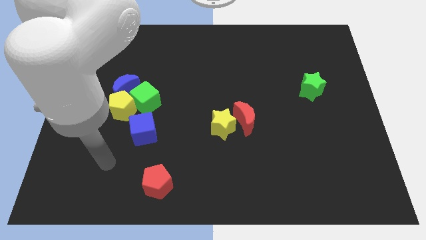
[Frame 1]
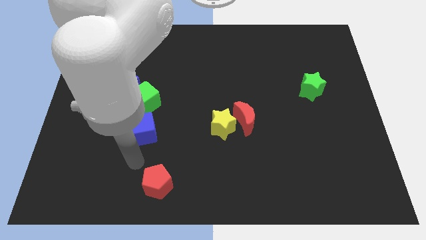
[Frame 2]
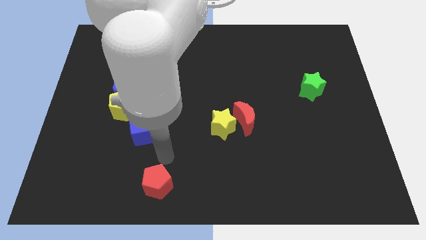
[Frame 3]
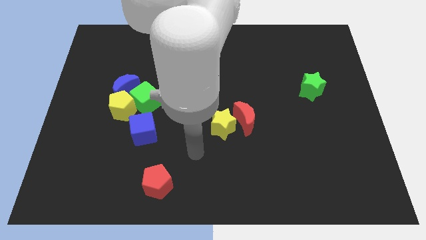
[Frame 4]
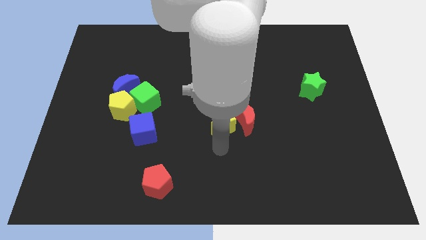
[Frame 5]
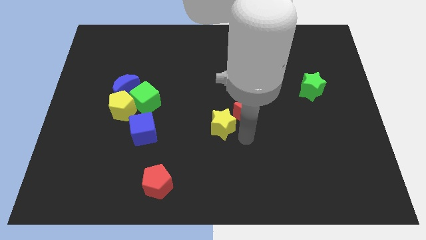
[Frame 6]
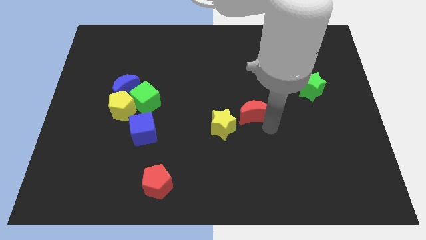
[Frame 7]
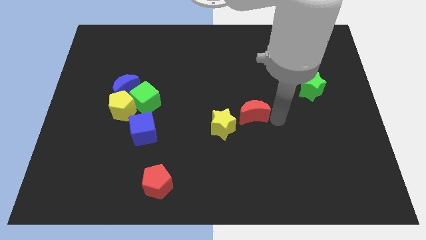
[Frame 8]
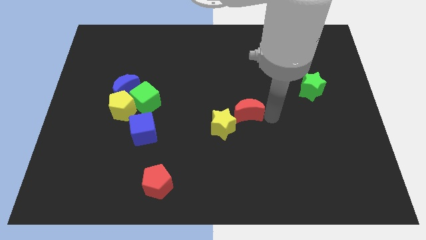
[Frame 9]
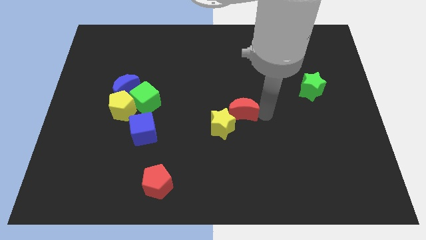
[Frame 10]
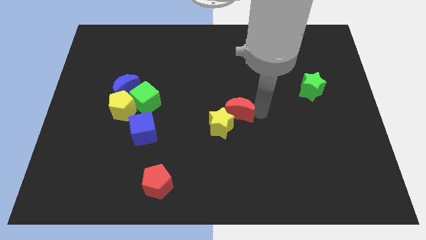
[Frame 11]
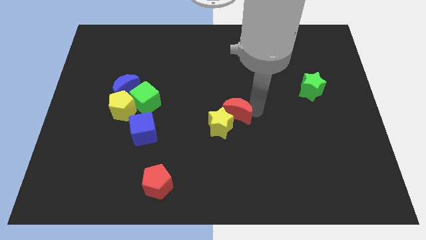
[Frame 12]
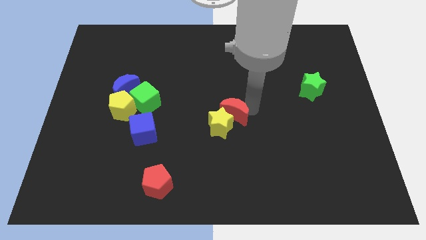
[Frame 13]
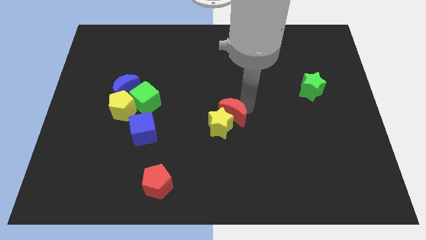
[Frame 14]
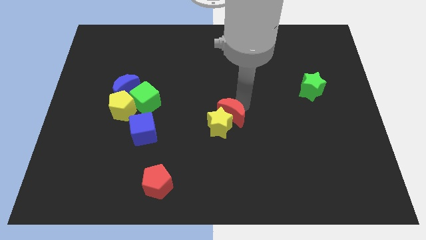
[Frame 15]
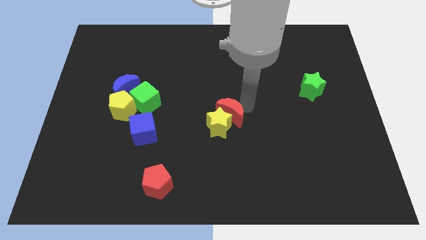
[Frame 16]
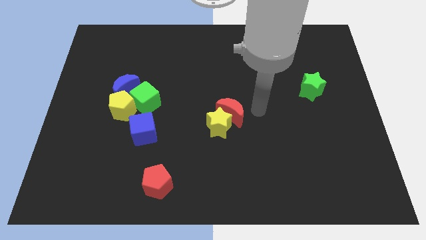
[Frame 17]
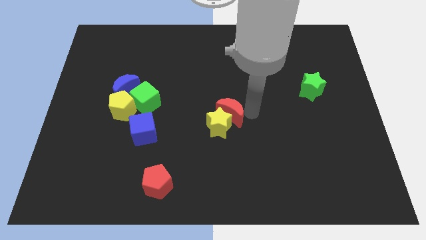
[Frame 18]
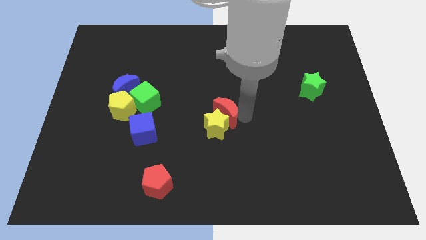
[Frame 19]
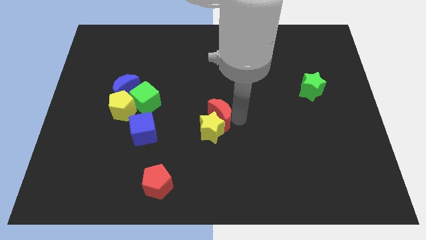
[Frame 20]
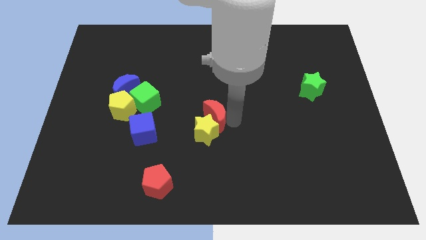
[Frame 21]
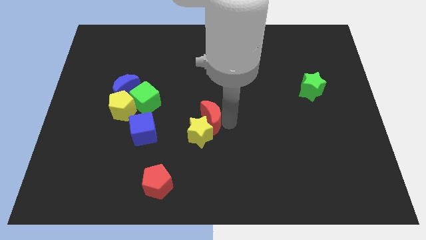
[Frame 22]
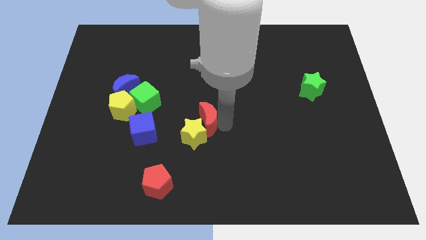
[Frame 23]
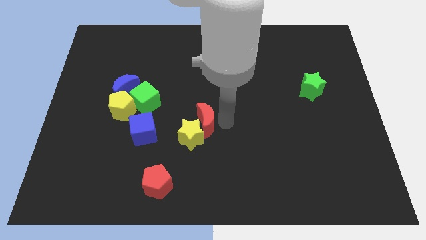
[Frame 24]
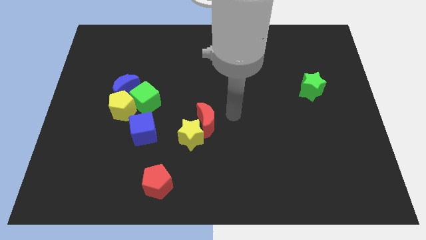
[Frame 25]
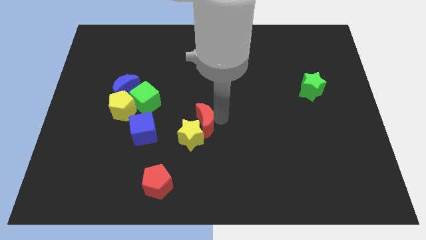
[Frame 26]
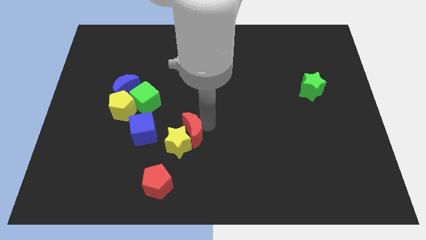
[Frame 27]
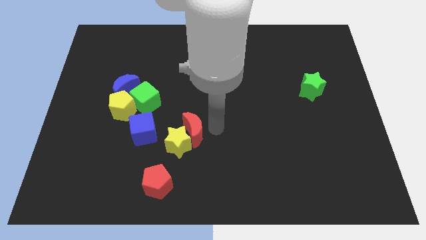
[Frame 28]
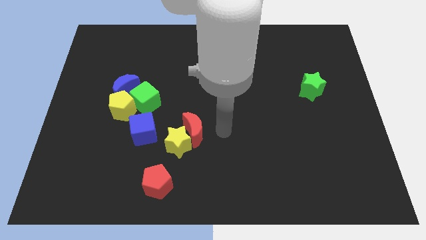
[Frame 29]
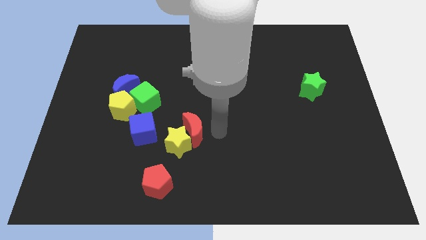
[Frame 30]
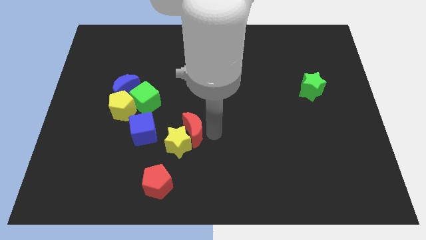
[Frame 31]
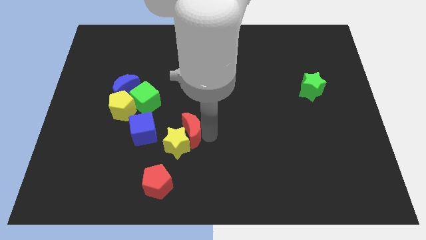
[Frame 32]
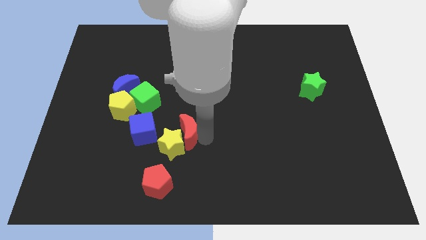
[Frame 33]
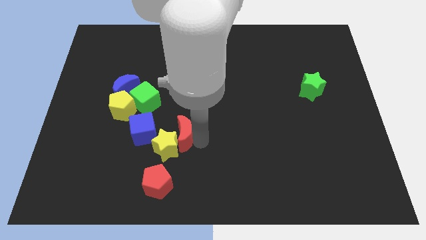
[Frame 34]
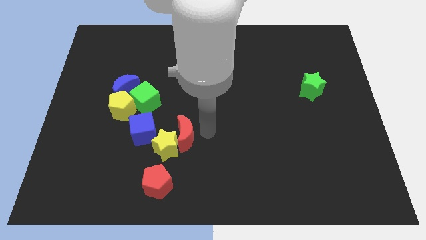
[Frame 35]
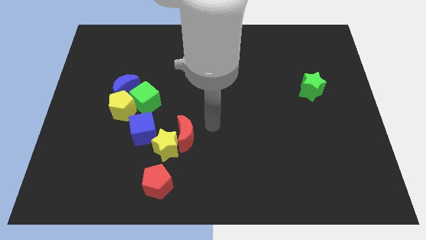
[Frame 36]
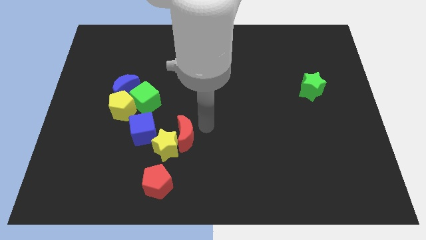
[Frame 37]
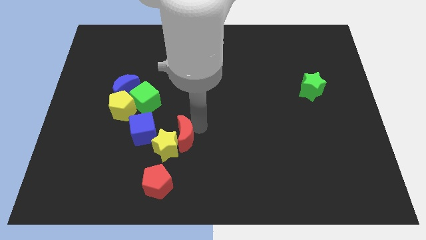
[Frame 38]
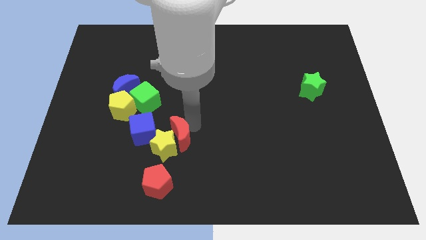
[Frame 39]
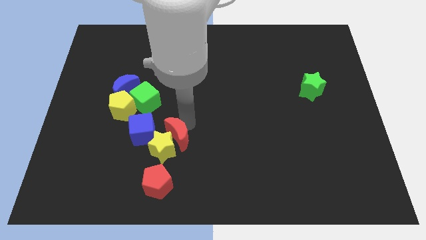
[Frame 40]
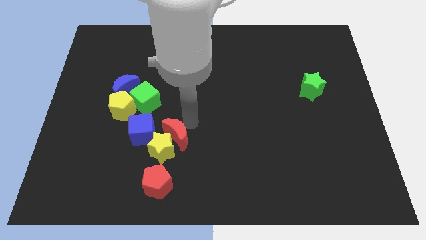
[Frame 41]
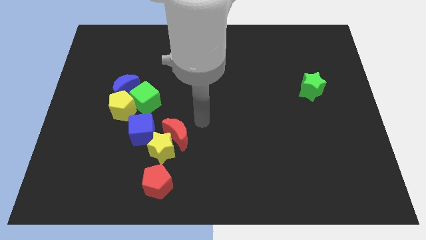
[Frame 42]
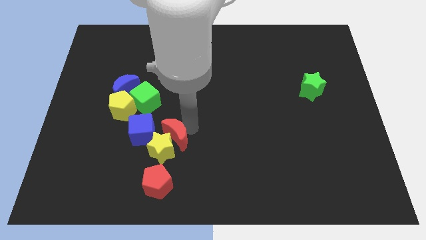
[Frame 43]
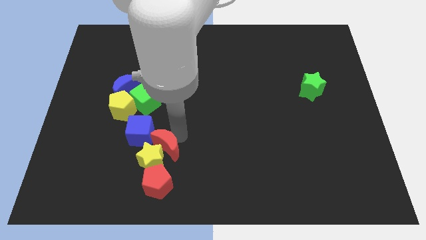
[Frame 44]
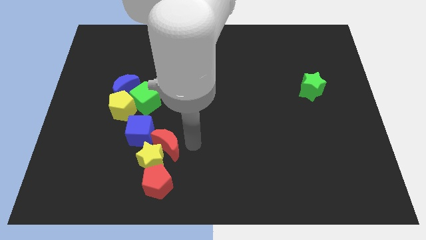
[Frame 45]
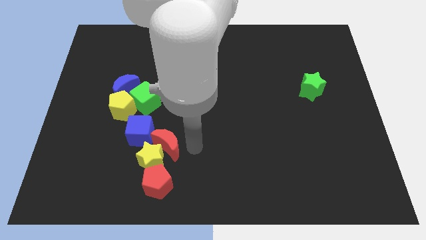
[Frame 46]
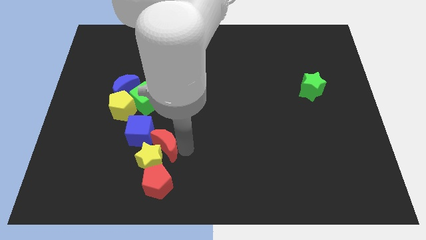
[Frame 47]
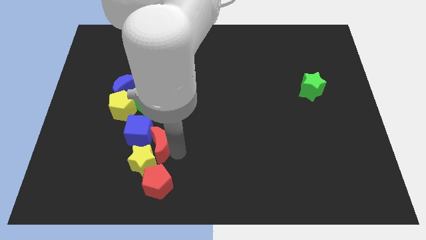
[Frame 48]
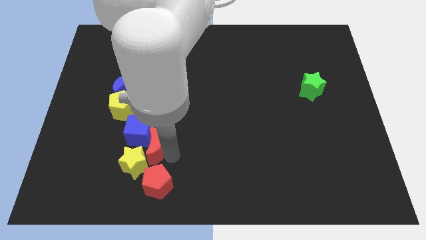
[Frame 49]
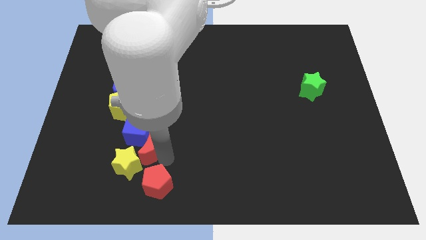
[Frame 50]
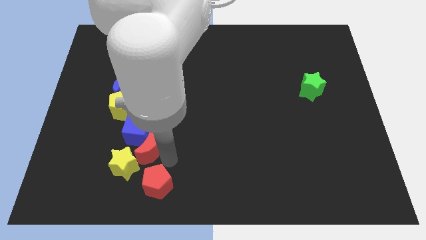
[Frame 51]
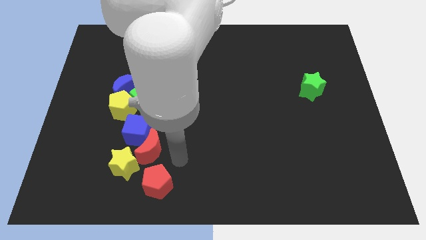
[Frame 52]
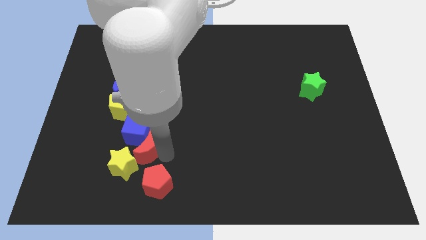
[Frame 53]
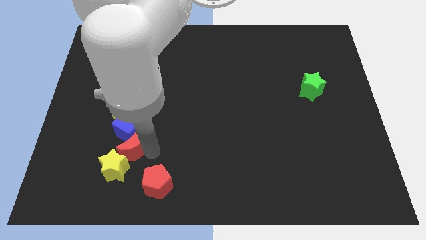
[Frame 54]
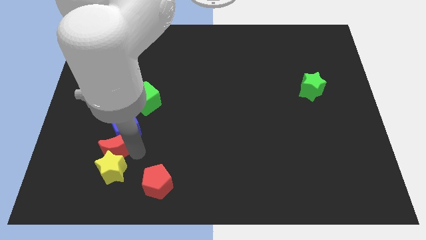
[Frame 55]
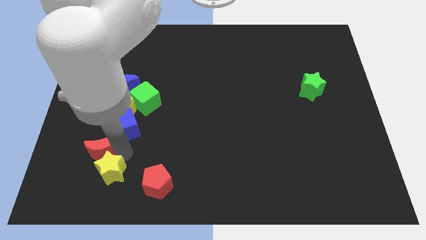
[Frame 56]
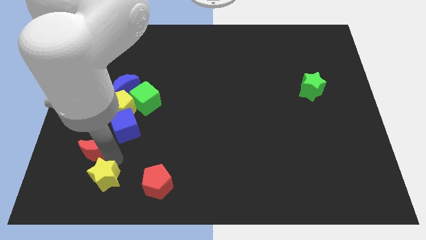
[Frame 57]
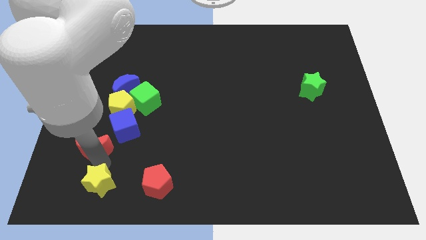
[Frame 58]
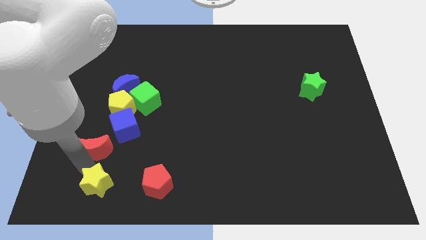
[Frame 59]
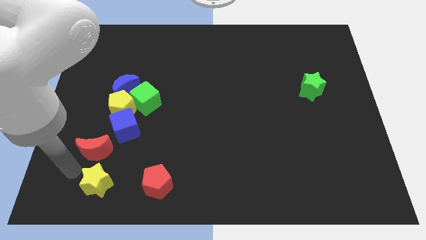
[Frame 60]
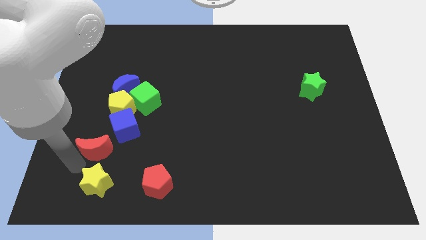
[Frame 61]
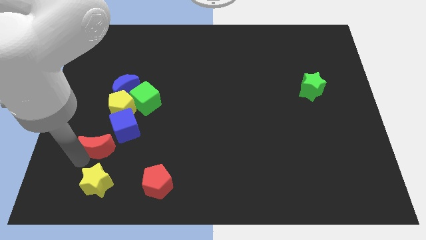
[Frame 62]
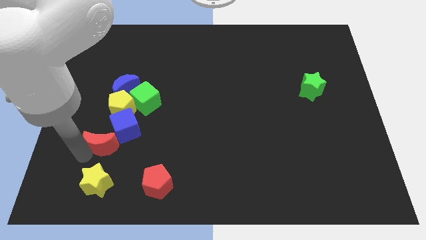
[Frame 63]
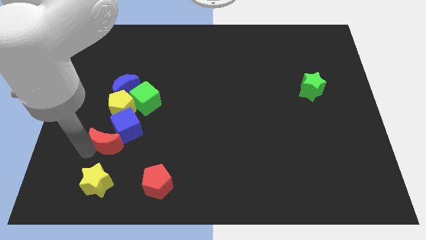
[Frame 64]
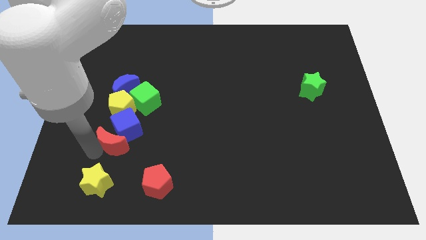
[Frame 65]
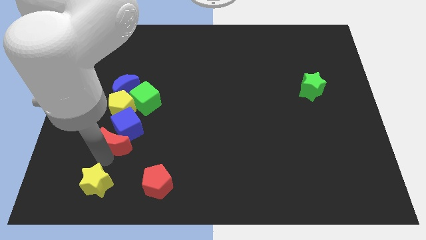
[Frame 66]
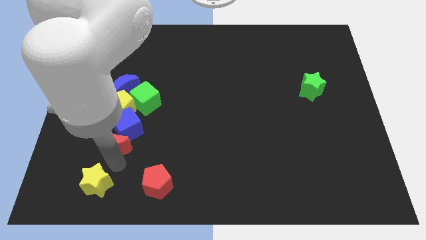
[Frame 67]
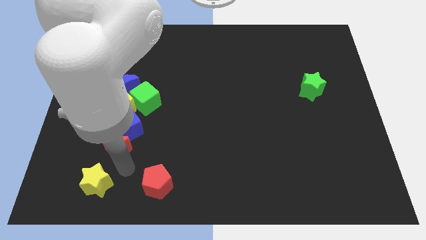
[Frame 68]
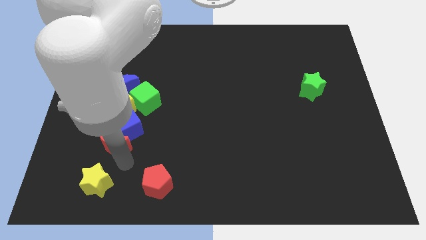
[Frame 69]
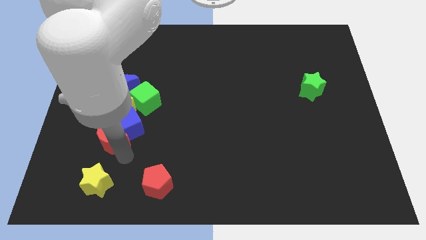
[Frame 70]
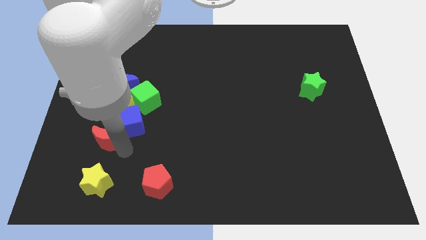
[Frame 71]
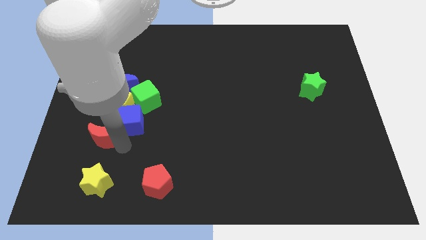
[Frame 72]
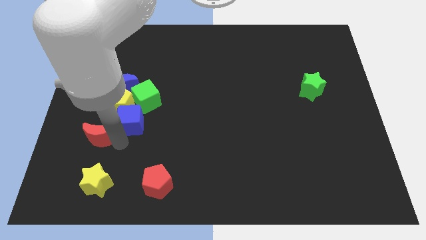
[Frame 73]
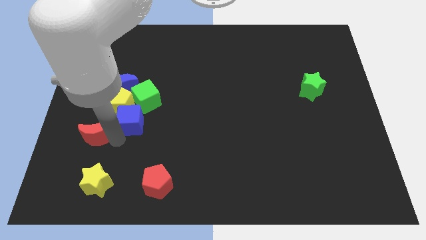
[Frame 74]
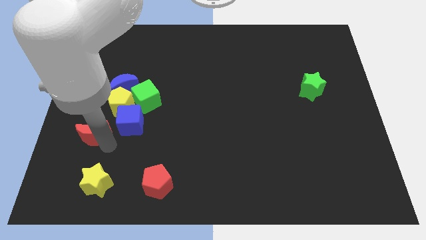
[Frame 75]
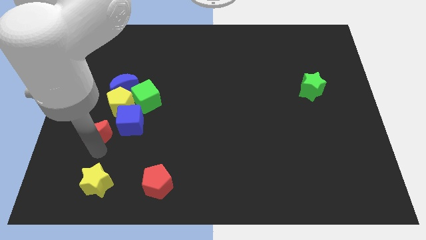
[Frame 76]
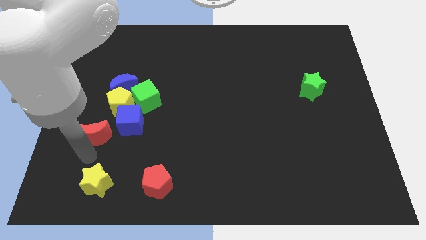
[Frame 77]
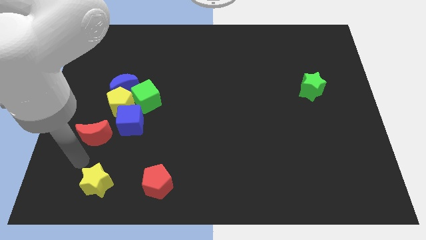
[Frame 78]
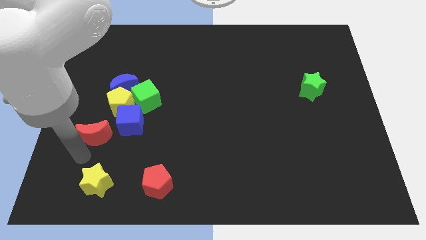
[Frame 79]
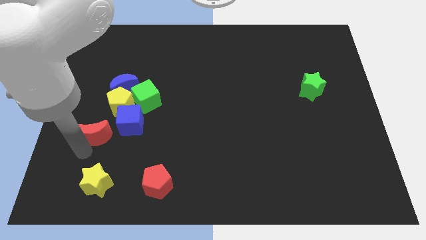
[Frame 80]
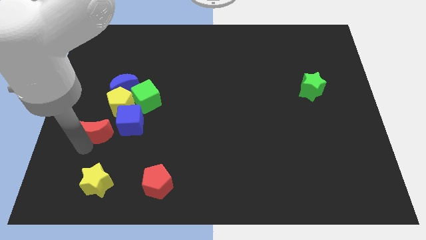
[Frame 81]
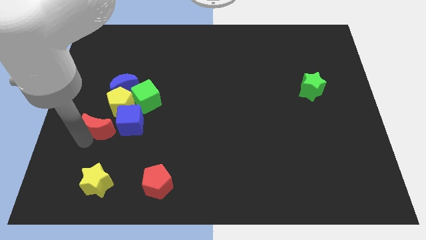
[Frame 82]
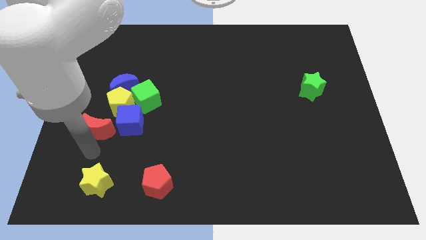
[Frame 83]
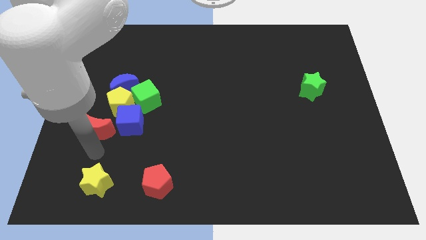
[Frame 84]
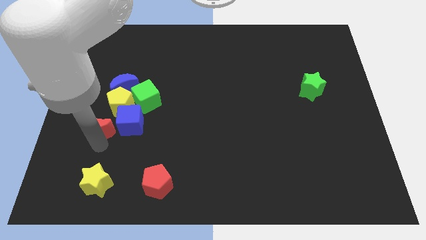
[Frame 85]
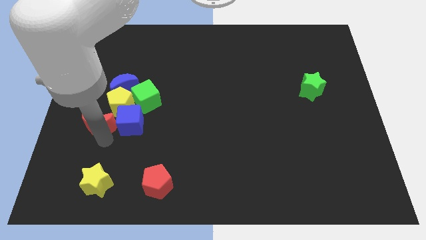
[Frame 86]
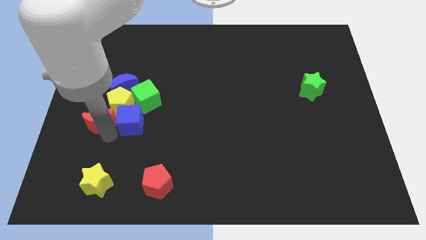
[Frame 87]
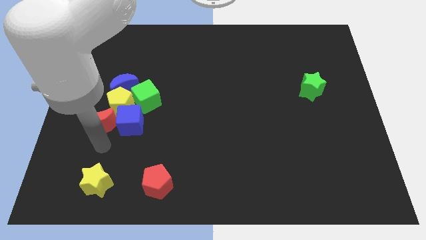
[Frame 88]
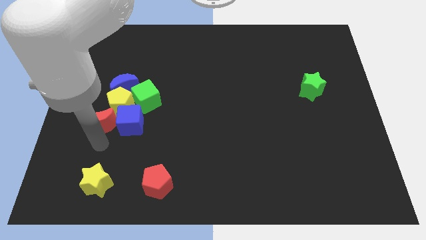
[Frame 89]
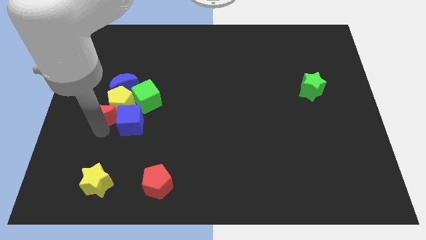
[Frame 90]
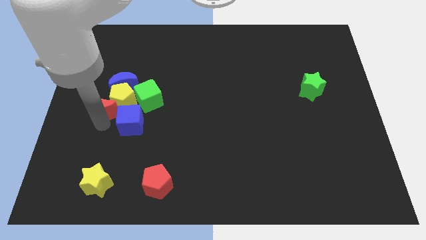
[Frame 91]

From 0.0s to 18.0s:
slide the red moon just left of the green cube
